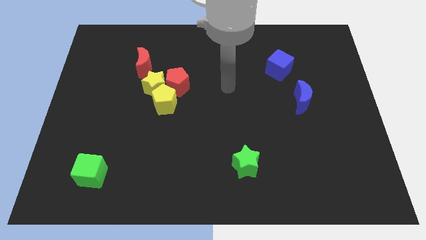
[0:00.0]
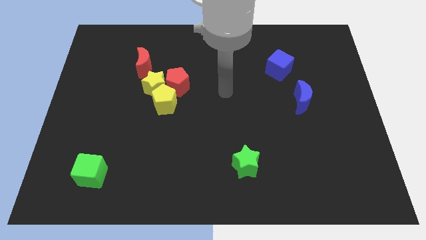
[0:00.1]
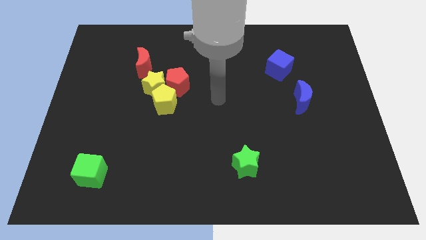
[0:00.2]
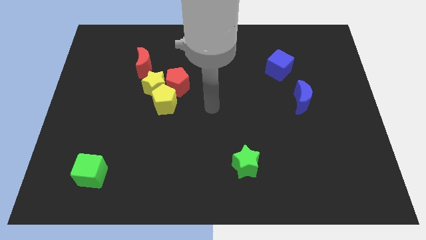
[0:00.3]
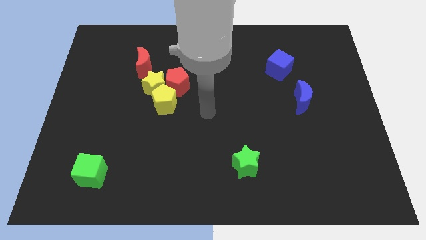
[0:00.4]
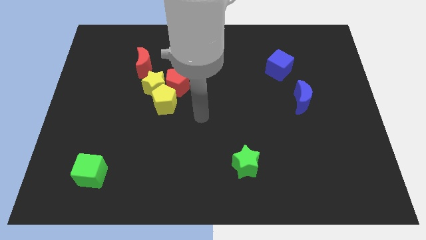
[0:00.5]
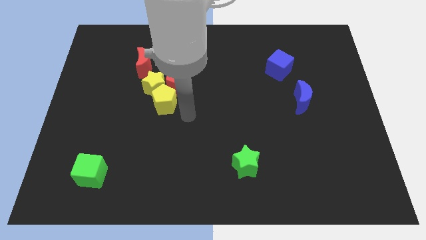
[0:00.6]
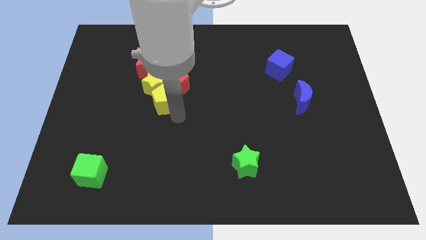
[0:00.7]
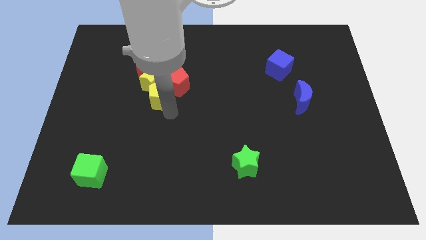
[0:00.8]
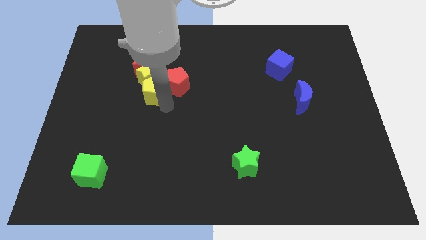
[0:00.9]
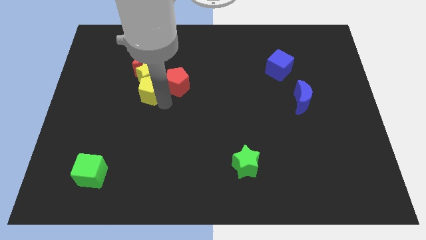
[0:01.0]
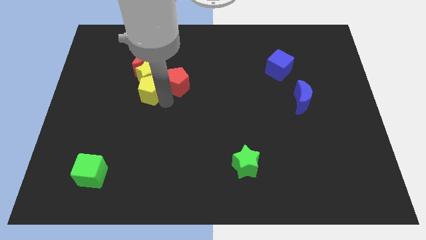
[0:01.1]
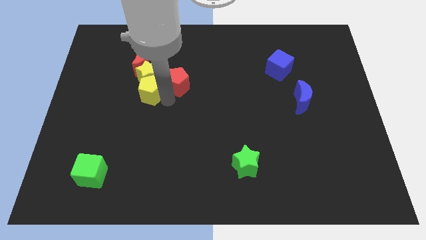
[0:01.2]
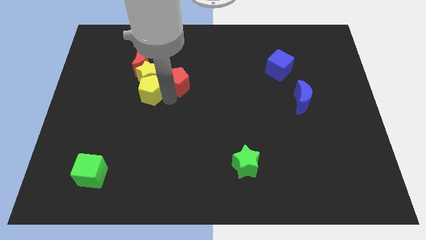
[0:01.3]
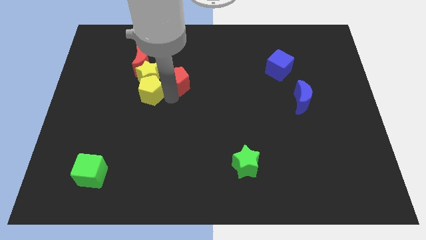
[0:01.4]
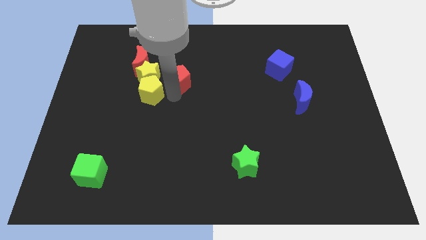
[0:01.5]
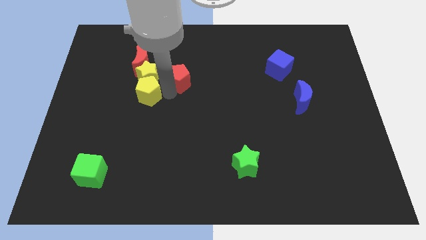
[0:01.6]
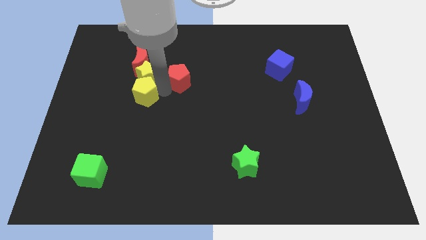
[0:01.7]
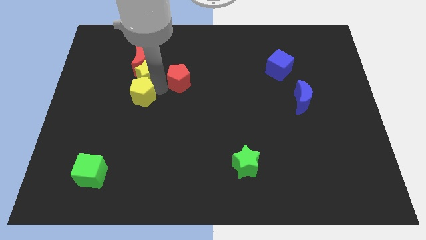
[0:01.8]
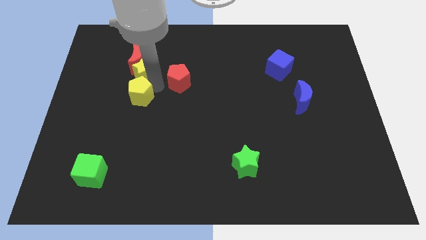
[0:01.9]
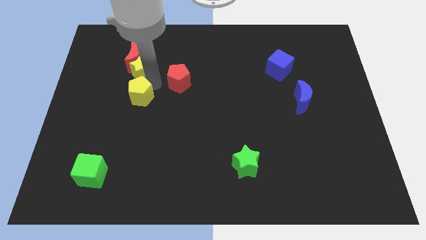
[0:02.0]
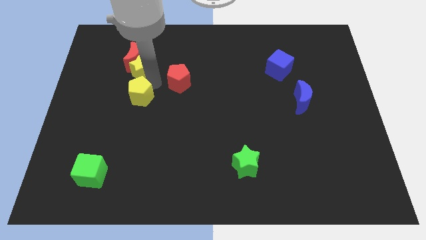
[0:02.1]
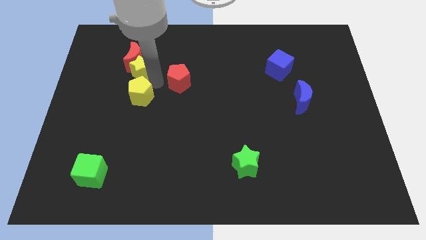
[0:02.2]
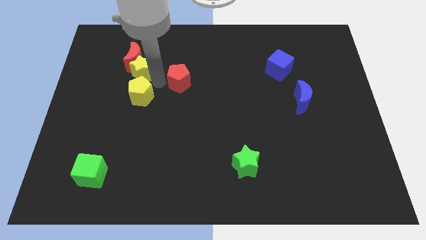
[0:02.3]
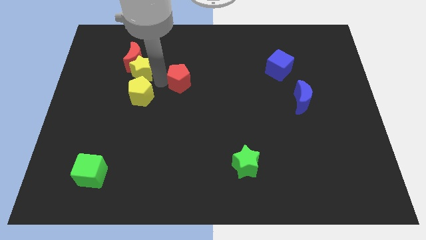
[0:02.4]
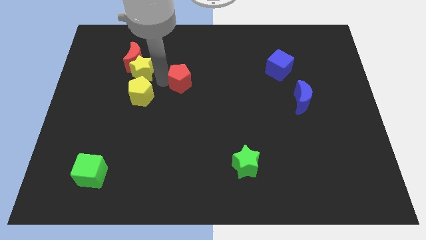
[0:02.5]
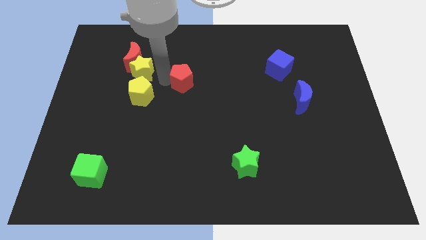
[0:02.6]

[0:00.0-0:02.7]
pull the red pentagon apart from the yellow star and yellow pentagon

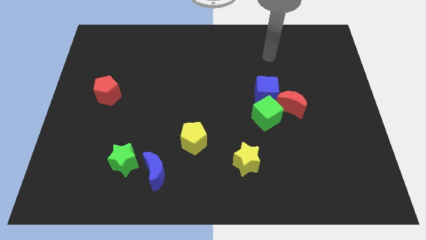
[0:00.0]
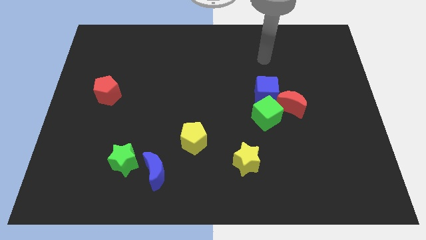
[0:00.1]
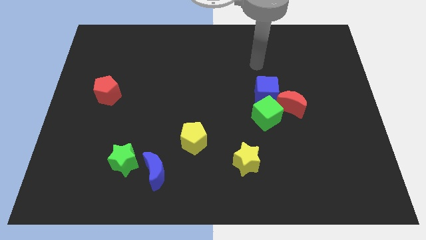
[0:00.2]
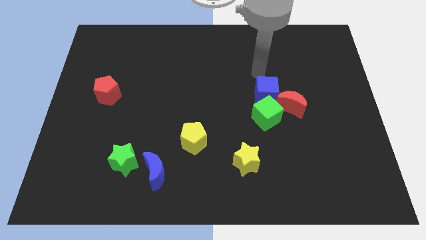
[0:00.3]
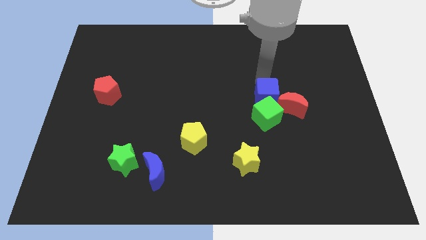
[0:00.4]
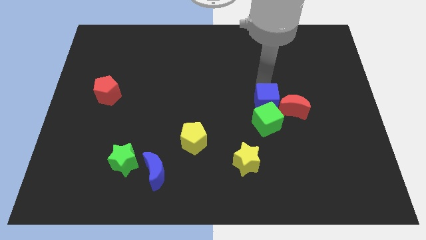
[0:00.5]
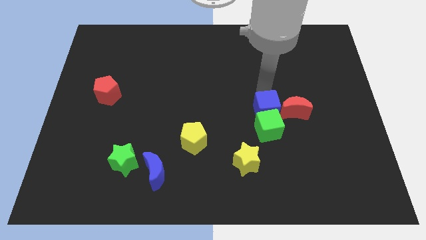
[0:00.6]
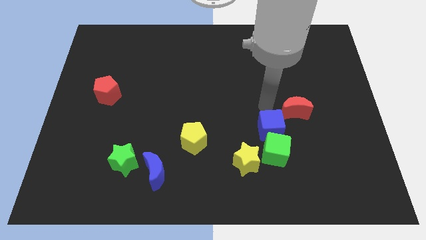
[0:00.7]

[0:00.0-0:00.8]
pull the red moon apart from the blue cube and green cube

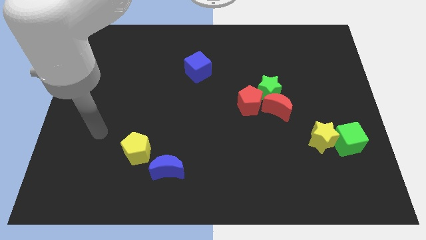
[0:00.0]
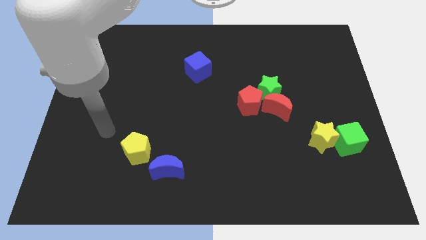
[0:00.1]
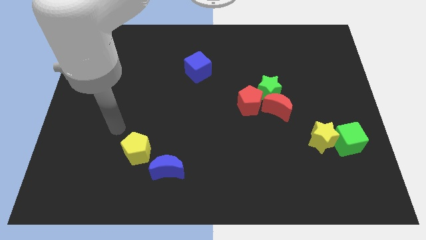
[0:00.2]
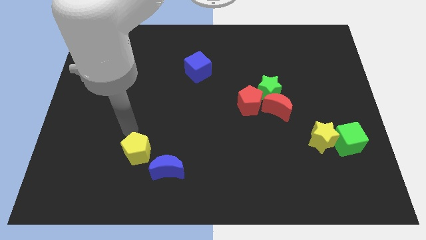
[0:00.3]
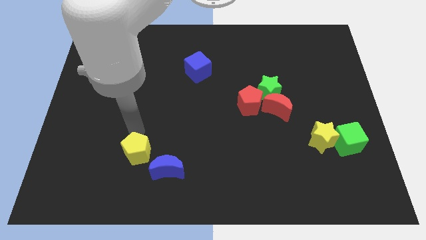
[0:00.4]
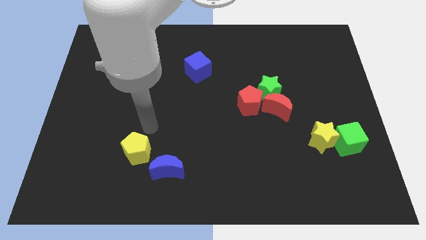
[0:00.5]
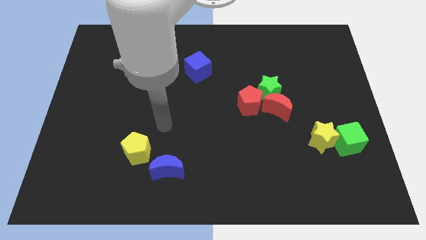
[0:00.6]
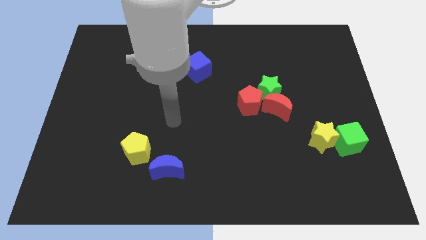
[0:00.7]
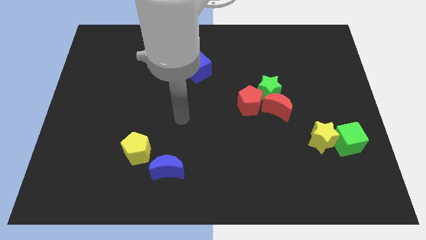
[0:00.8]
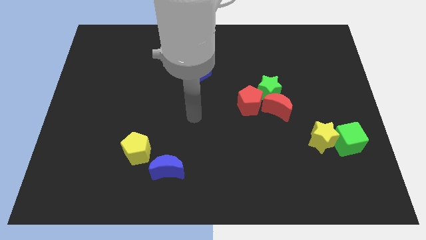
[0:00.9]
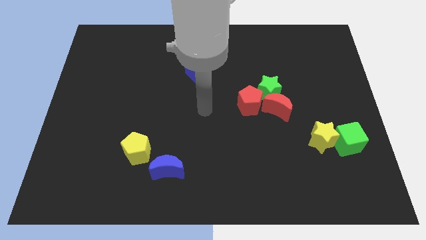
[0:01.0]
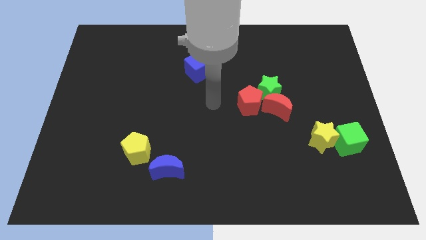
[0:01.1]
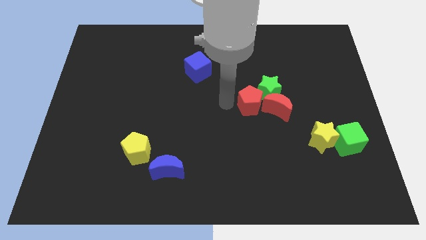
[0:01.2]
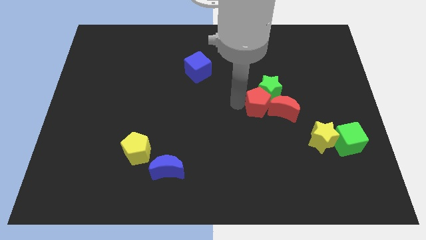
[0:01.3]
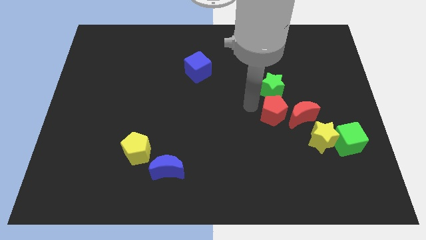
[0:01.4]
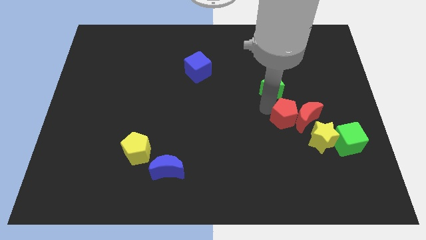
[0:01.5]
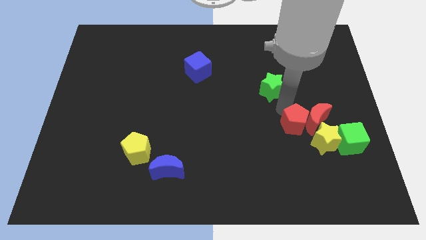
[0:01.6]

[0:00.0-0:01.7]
pull the green star apart from the red moon and red pentagon

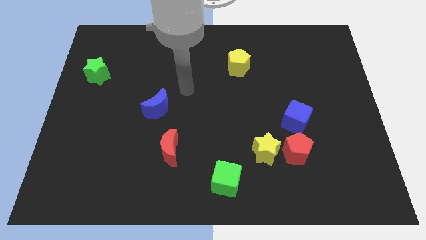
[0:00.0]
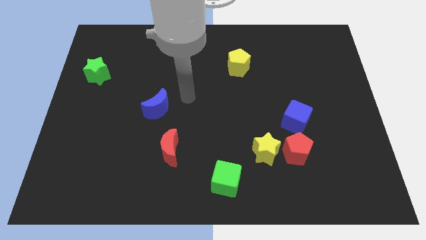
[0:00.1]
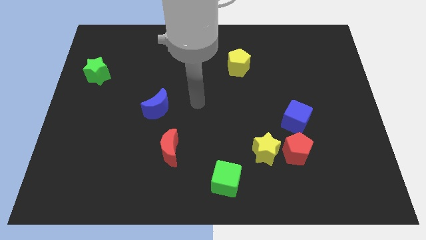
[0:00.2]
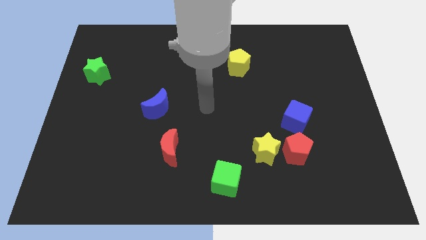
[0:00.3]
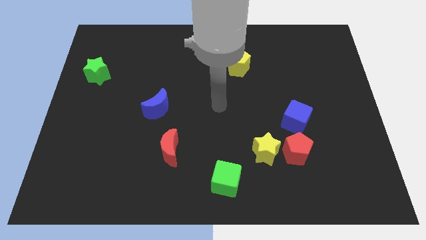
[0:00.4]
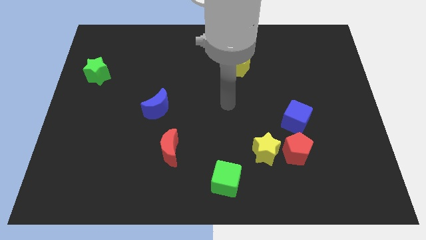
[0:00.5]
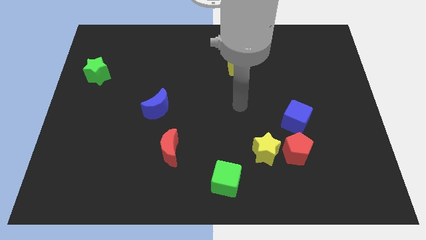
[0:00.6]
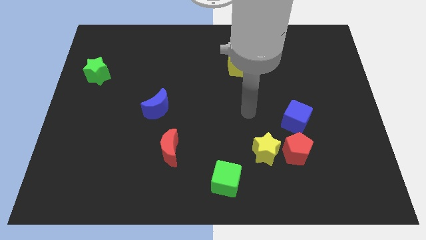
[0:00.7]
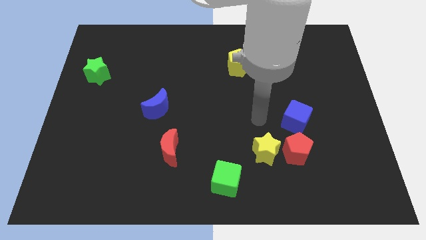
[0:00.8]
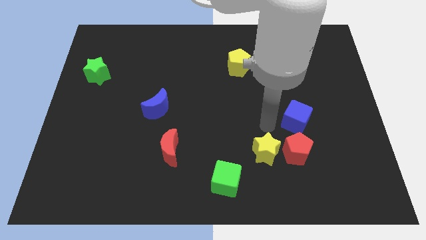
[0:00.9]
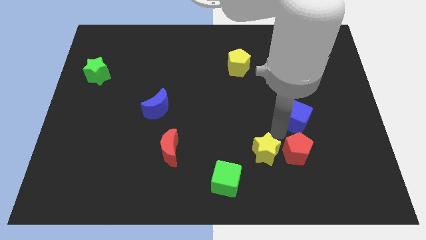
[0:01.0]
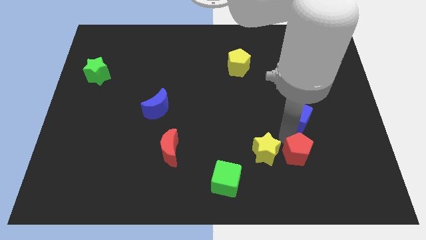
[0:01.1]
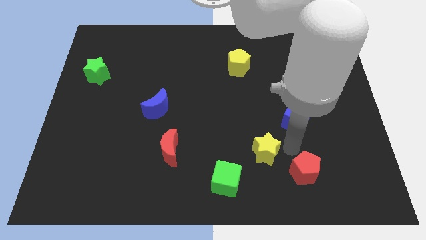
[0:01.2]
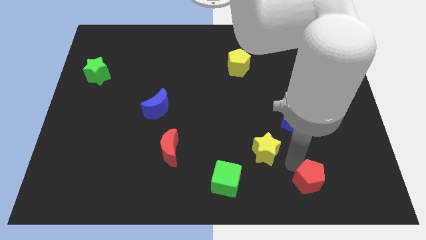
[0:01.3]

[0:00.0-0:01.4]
move the yellow star away from the red pentagon

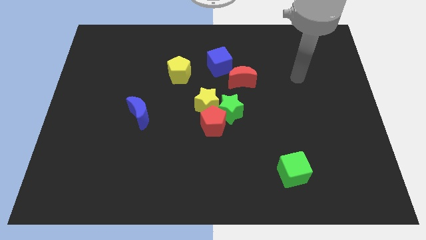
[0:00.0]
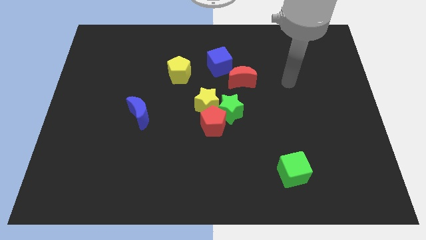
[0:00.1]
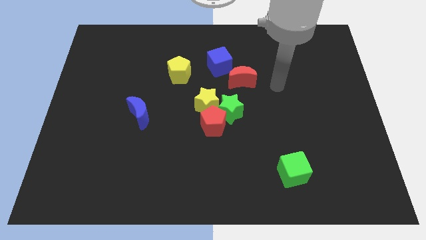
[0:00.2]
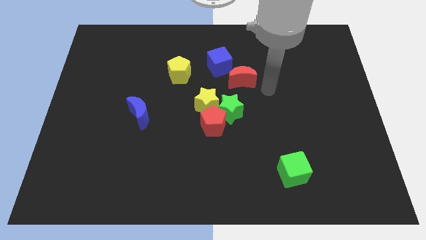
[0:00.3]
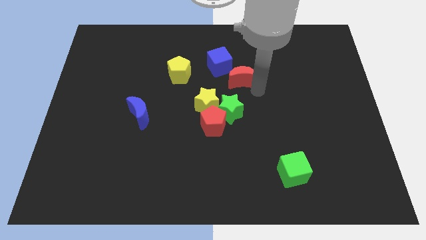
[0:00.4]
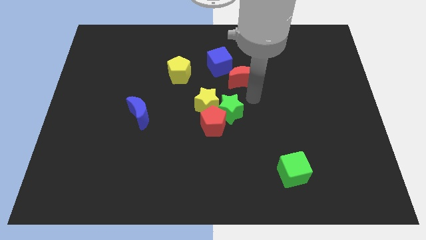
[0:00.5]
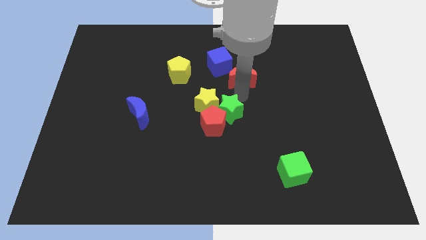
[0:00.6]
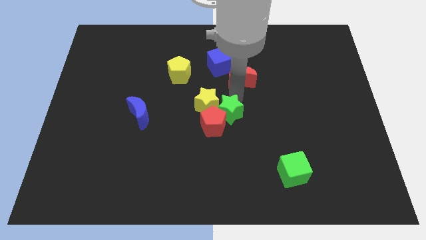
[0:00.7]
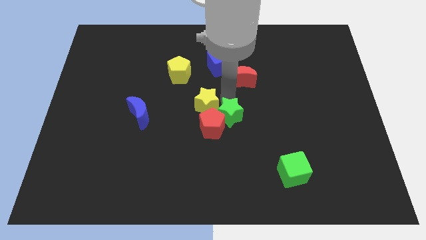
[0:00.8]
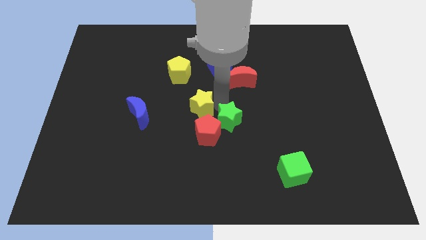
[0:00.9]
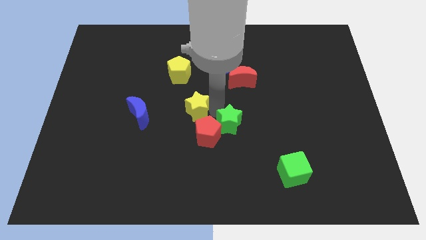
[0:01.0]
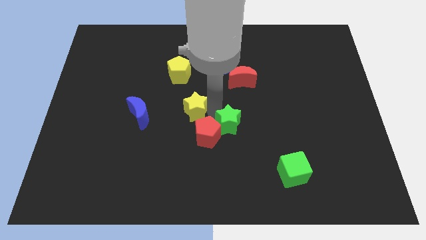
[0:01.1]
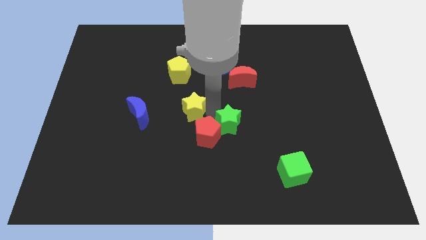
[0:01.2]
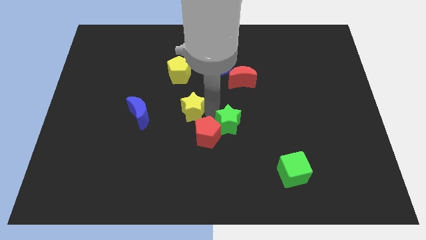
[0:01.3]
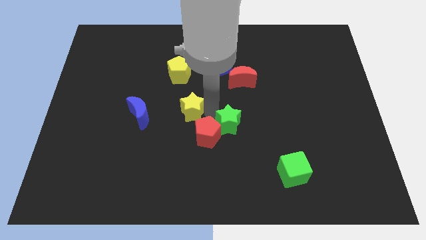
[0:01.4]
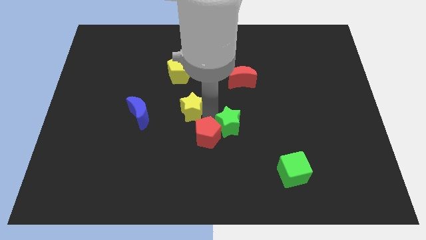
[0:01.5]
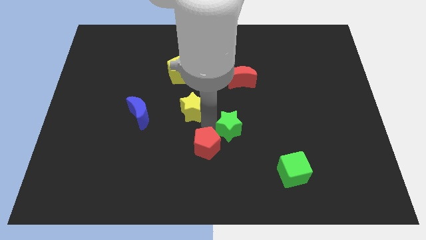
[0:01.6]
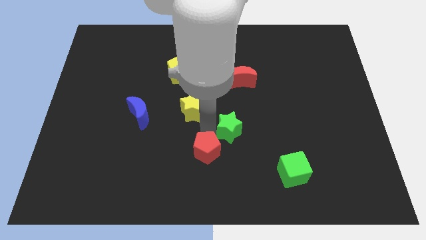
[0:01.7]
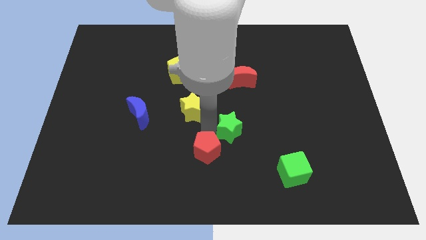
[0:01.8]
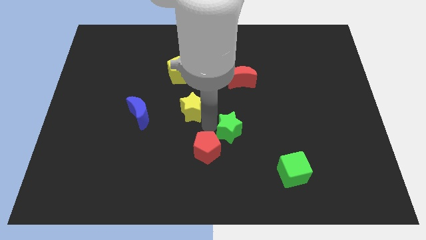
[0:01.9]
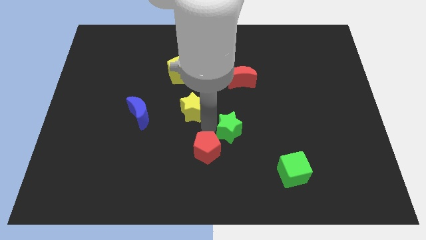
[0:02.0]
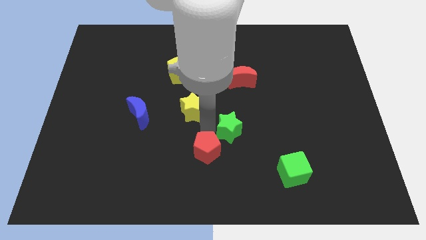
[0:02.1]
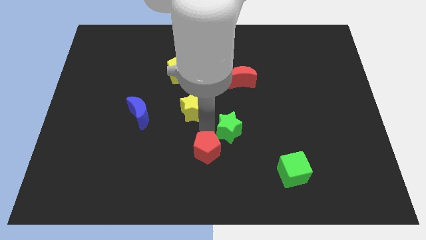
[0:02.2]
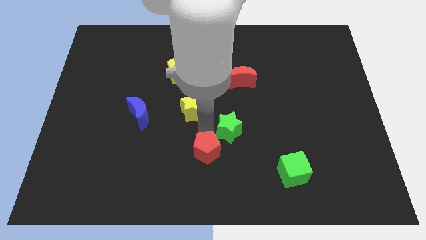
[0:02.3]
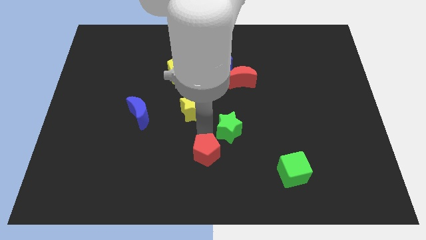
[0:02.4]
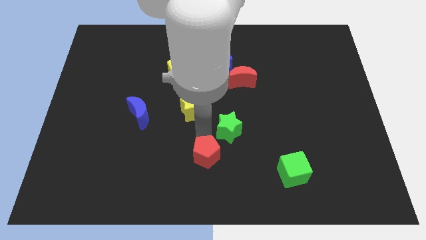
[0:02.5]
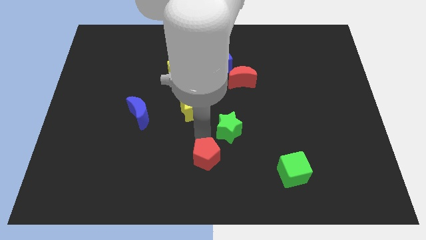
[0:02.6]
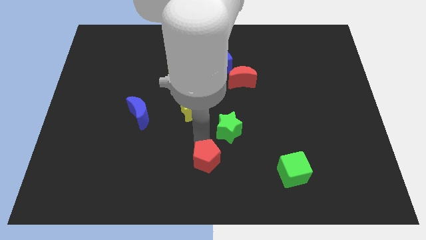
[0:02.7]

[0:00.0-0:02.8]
separate the red pentagon from the green star and yellow star
